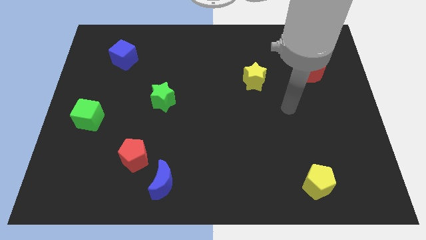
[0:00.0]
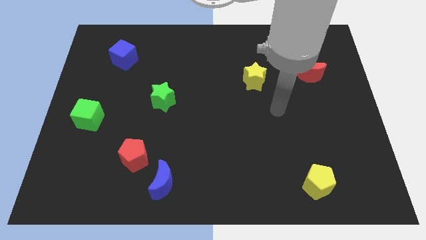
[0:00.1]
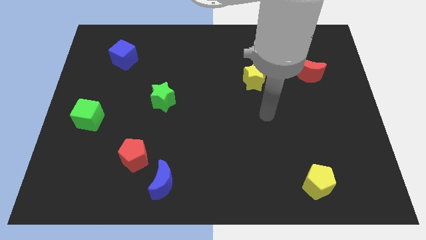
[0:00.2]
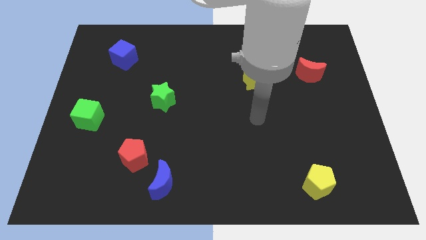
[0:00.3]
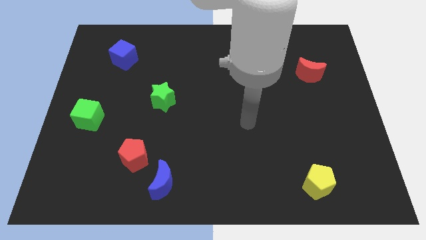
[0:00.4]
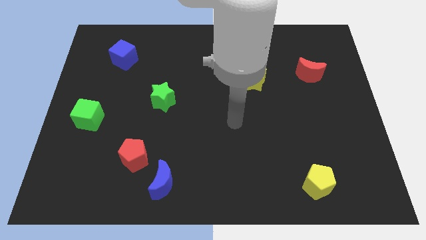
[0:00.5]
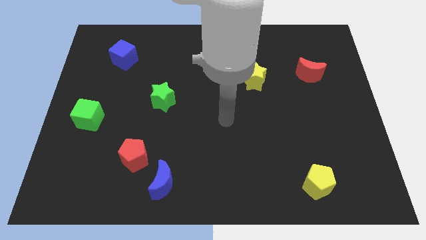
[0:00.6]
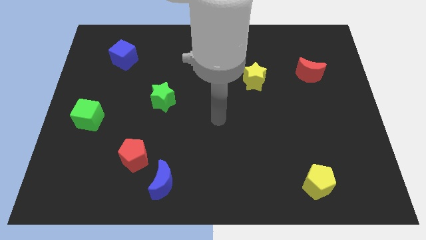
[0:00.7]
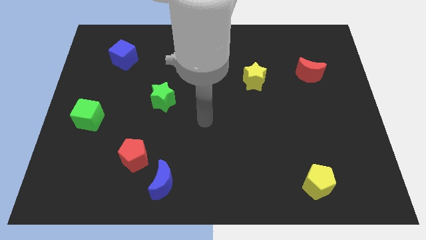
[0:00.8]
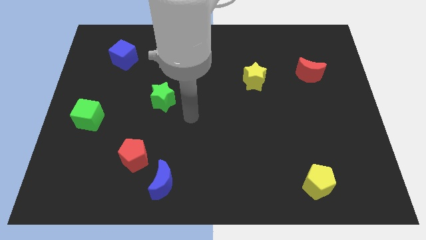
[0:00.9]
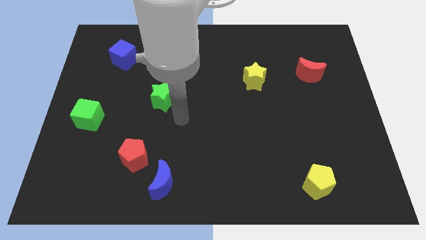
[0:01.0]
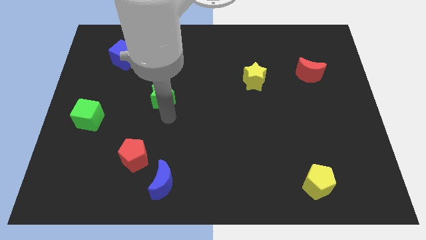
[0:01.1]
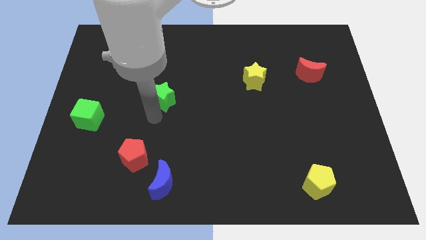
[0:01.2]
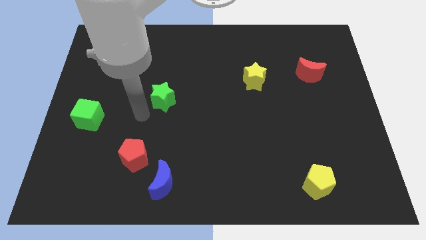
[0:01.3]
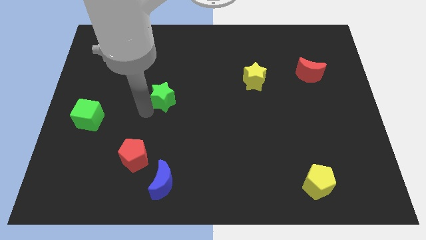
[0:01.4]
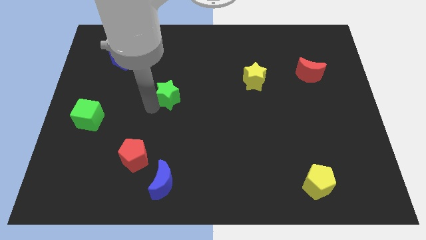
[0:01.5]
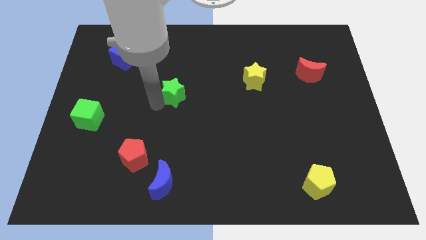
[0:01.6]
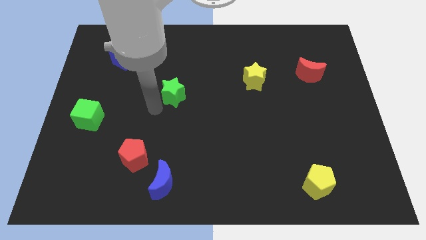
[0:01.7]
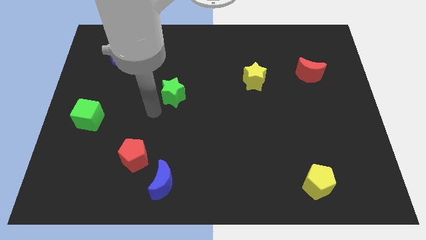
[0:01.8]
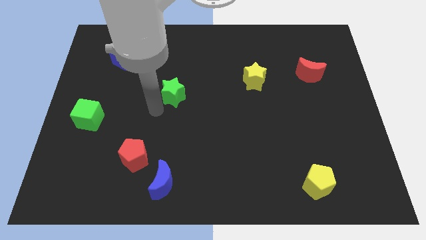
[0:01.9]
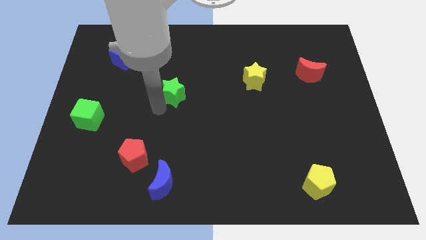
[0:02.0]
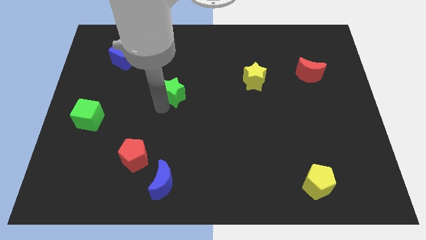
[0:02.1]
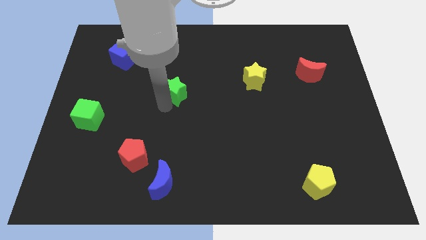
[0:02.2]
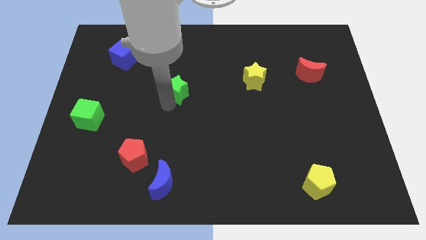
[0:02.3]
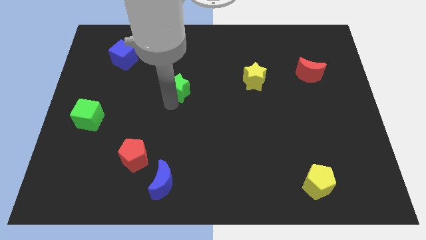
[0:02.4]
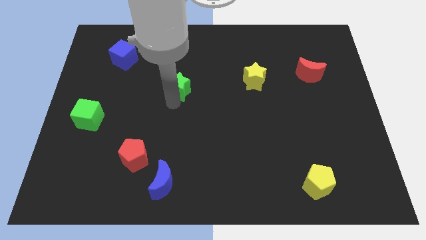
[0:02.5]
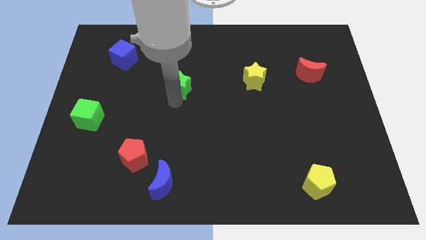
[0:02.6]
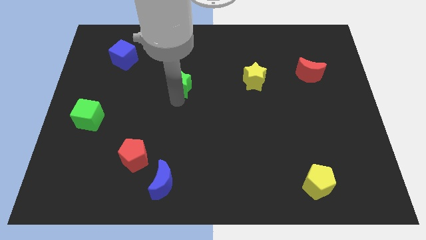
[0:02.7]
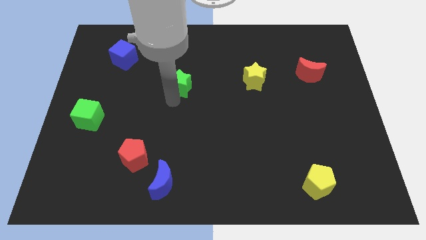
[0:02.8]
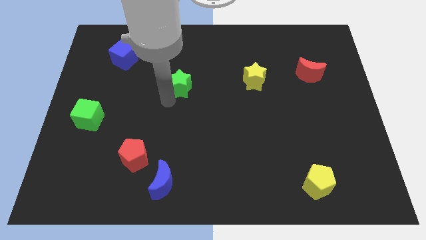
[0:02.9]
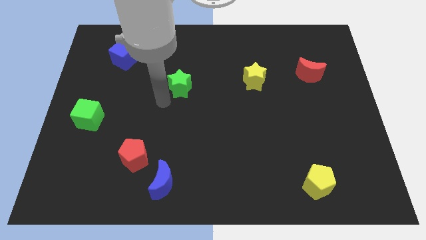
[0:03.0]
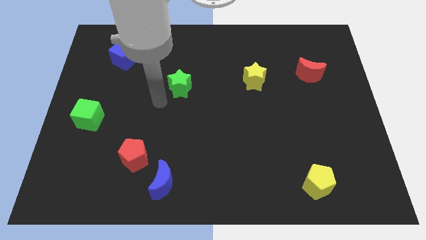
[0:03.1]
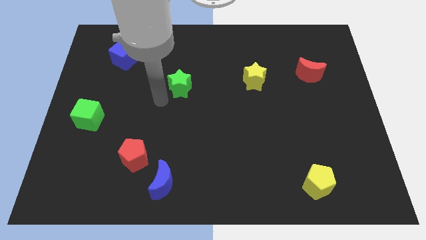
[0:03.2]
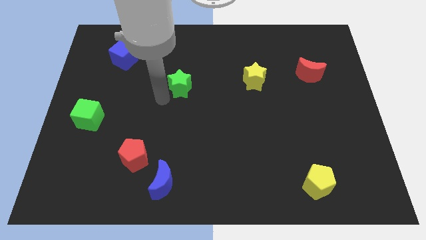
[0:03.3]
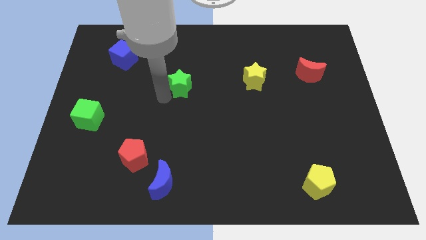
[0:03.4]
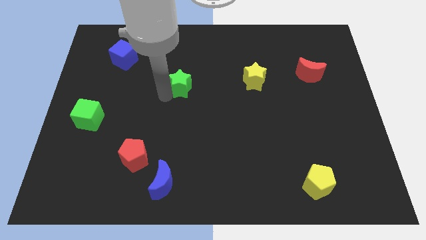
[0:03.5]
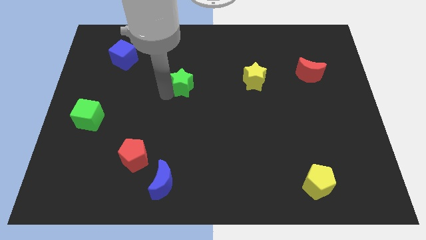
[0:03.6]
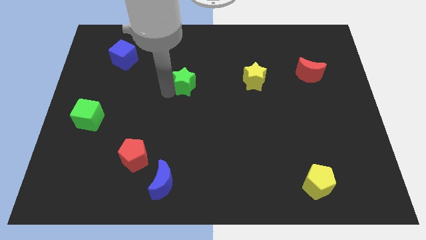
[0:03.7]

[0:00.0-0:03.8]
slightly push the green star diagonally up and right

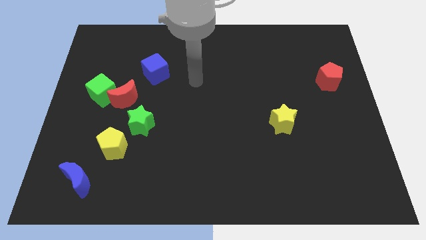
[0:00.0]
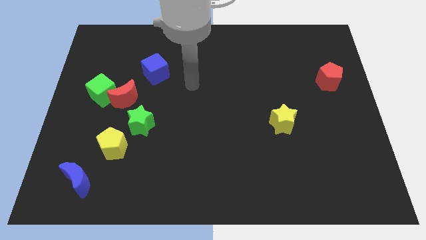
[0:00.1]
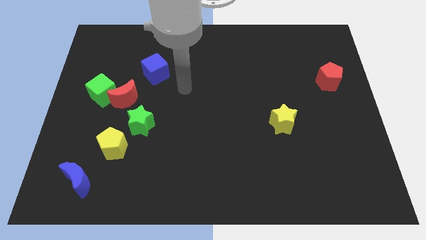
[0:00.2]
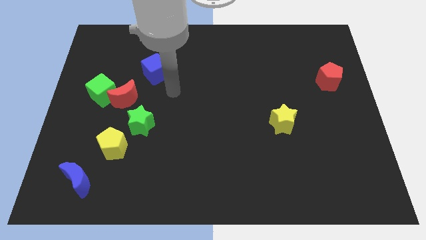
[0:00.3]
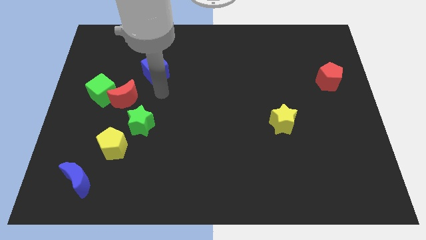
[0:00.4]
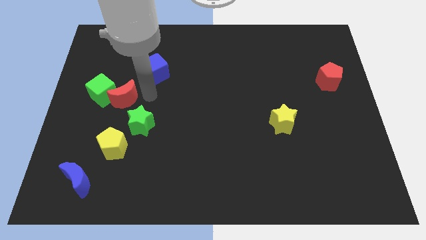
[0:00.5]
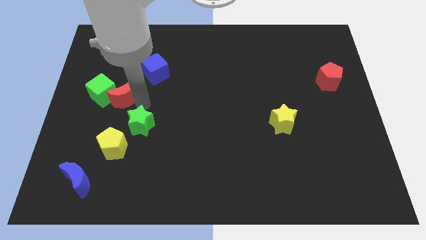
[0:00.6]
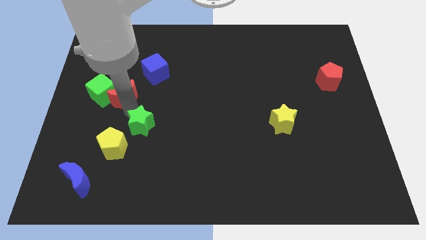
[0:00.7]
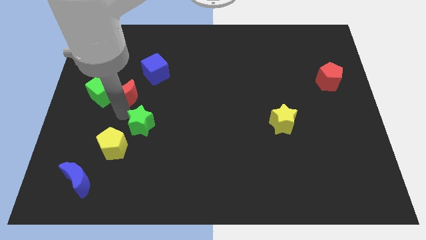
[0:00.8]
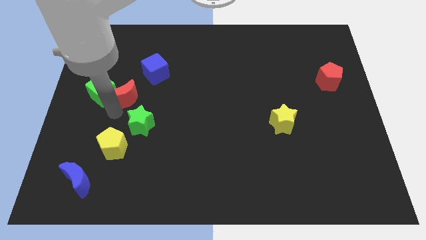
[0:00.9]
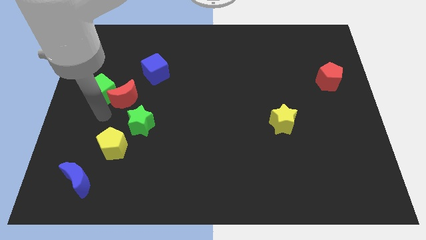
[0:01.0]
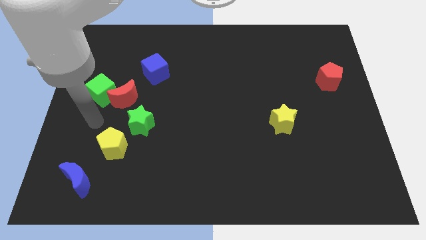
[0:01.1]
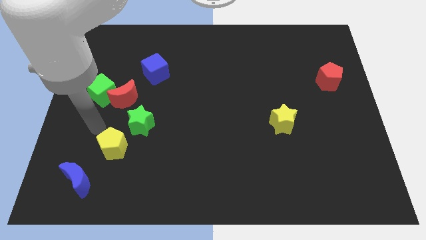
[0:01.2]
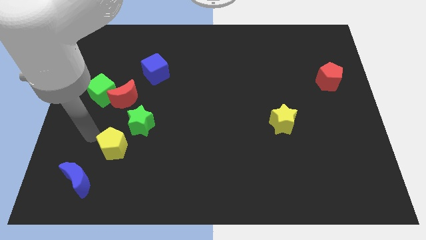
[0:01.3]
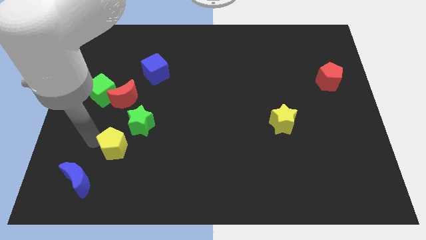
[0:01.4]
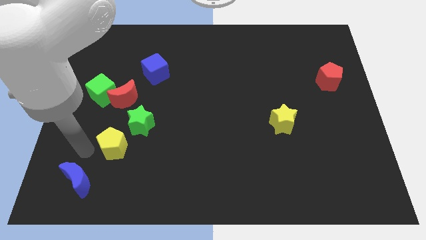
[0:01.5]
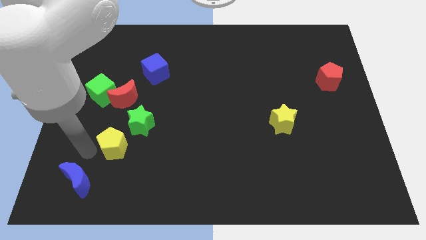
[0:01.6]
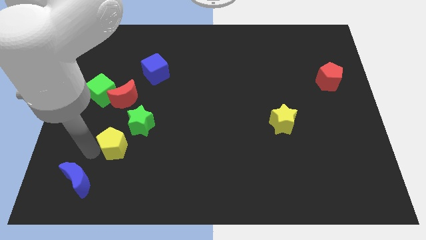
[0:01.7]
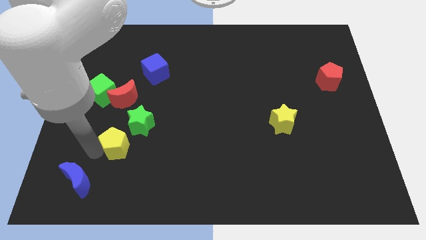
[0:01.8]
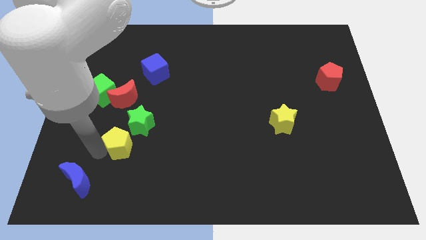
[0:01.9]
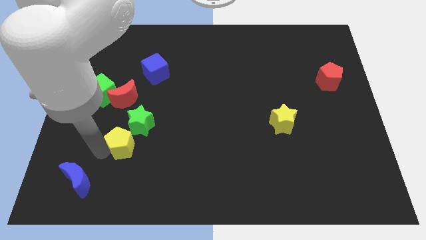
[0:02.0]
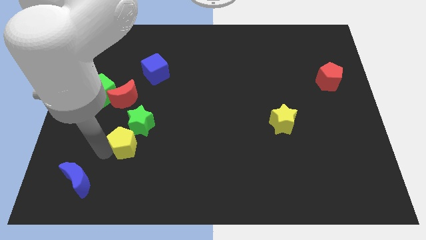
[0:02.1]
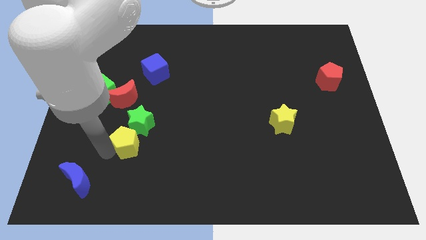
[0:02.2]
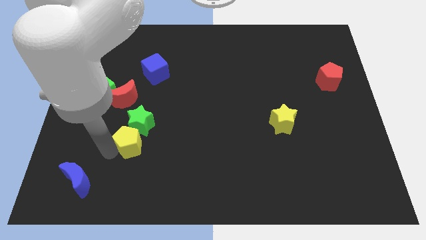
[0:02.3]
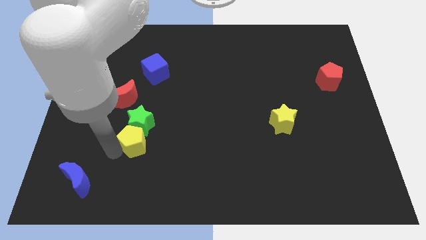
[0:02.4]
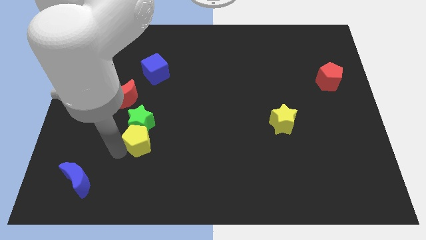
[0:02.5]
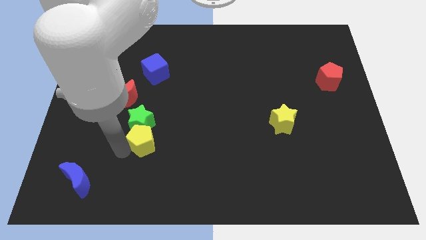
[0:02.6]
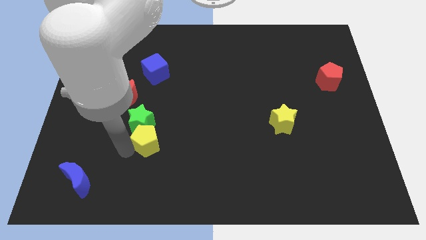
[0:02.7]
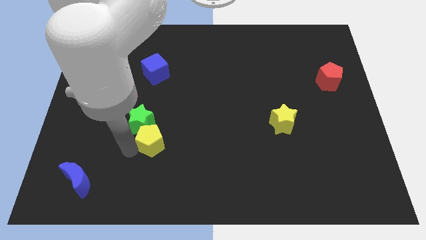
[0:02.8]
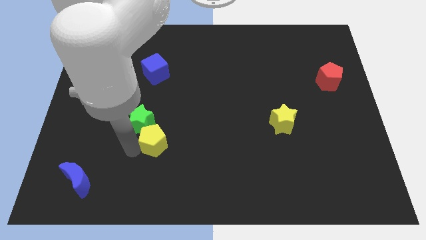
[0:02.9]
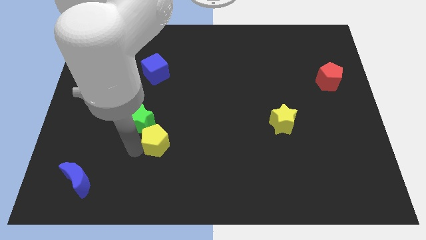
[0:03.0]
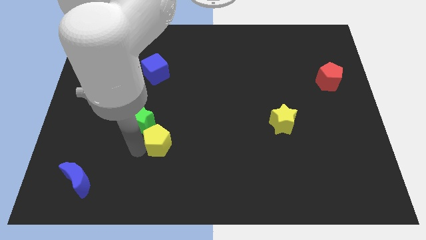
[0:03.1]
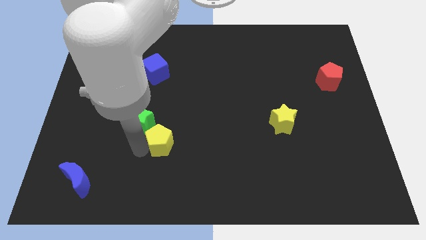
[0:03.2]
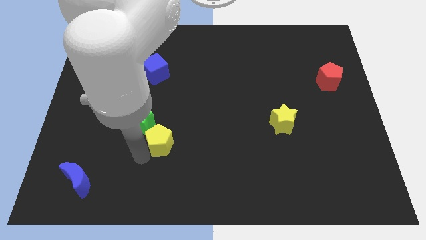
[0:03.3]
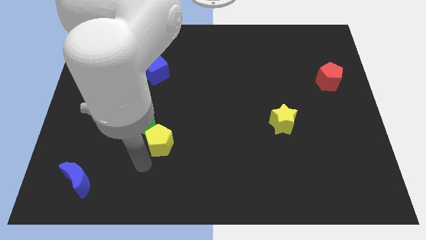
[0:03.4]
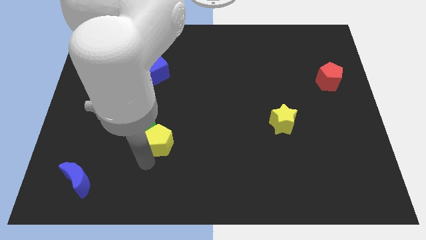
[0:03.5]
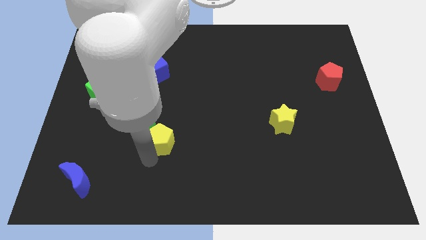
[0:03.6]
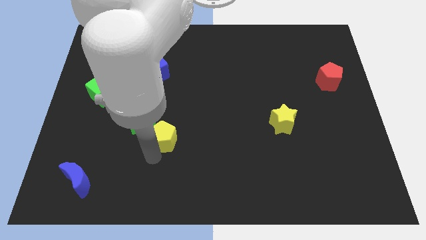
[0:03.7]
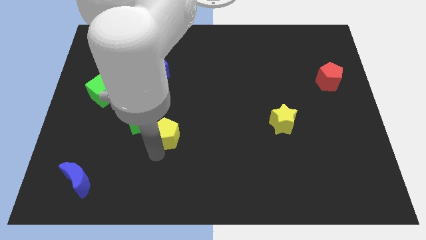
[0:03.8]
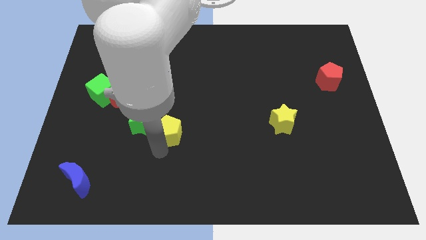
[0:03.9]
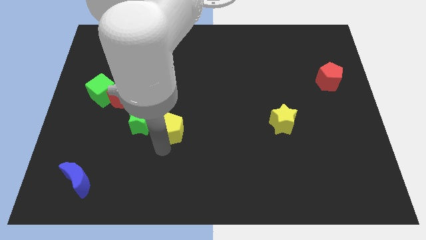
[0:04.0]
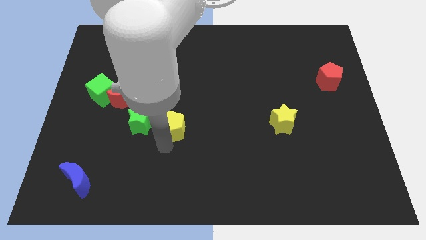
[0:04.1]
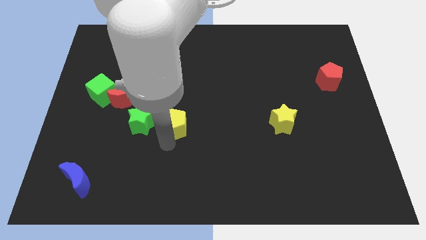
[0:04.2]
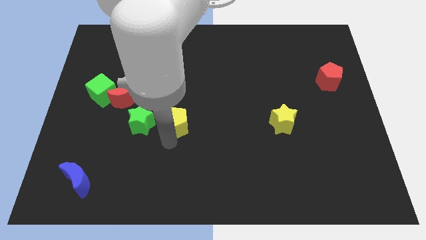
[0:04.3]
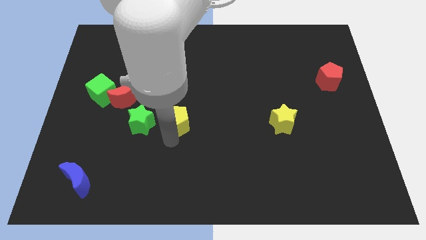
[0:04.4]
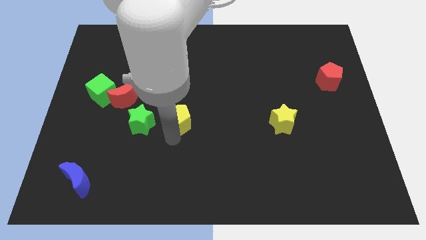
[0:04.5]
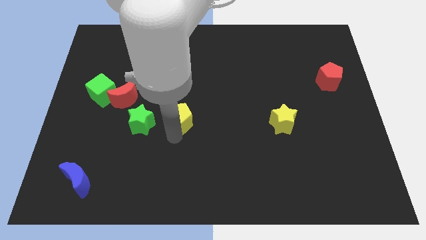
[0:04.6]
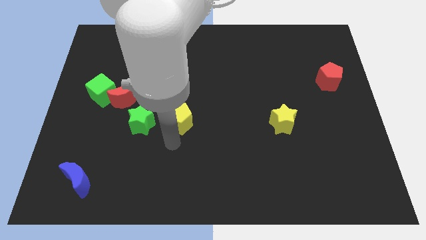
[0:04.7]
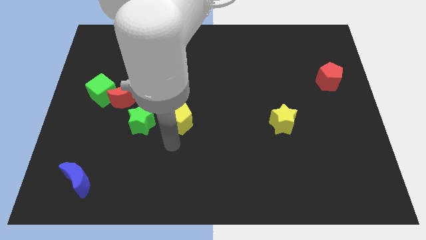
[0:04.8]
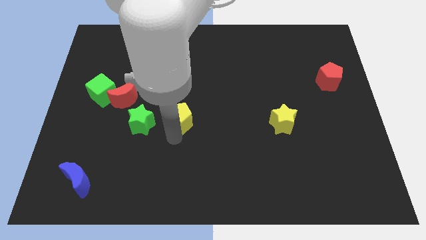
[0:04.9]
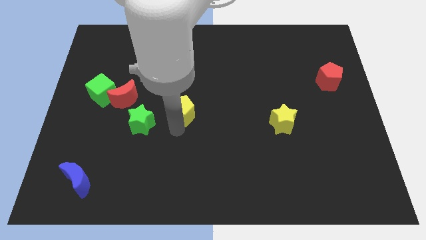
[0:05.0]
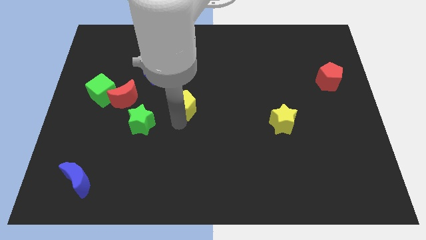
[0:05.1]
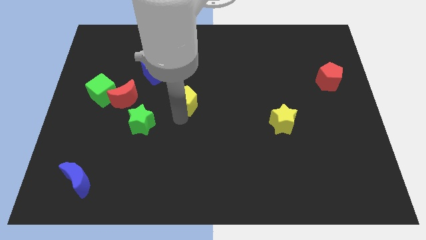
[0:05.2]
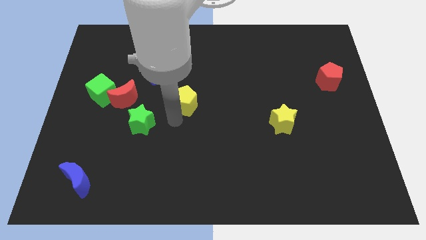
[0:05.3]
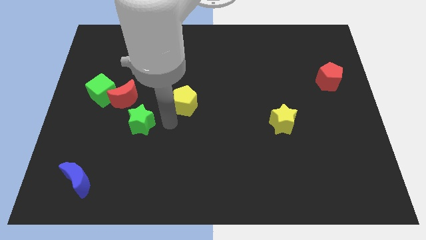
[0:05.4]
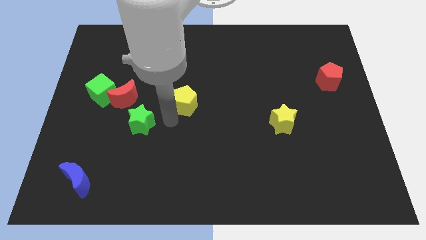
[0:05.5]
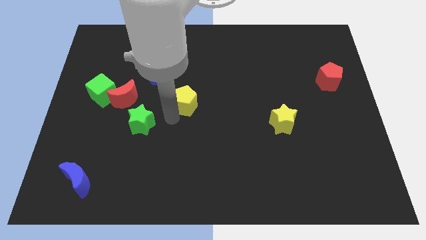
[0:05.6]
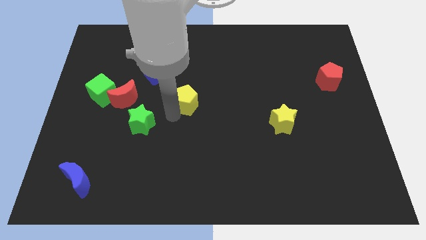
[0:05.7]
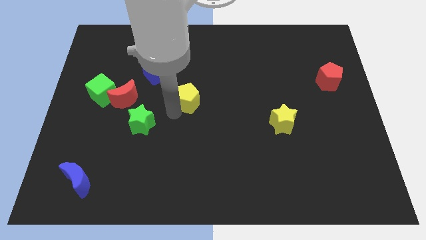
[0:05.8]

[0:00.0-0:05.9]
move the yellow pentagon upwards and right
